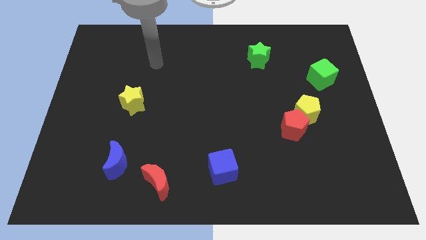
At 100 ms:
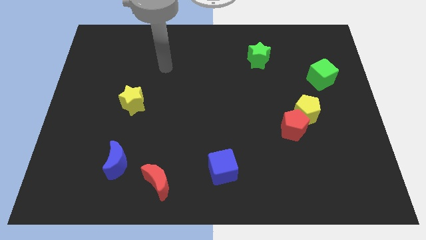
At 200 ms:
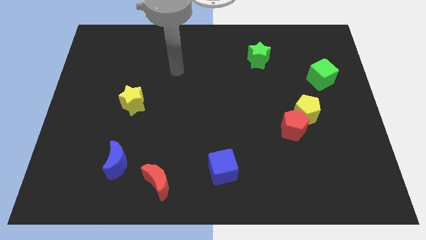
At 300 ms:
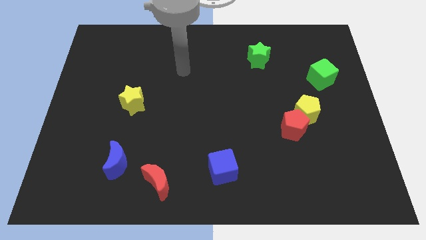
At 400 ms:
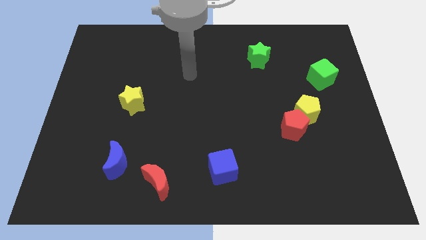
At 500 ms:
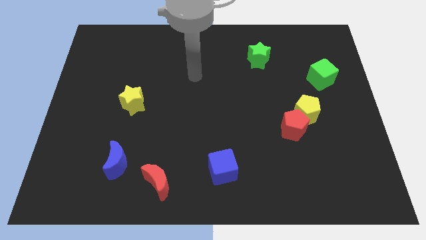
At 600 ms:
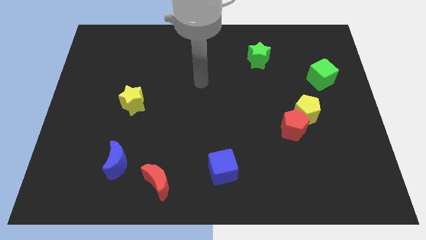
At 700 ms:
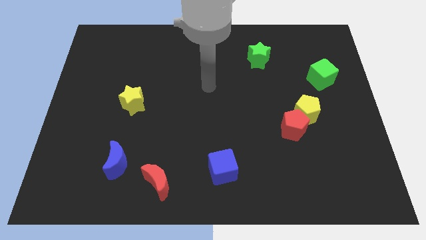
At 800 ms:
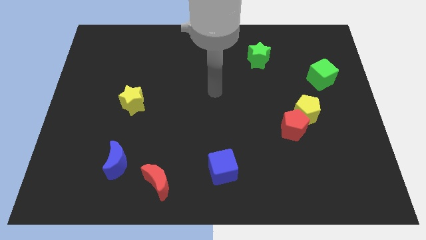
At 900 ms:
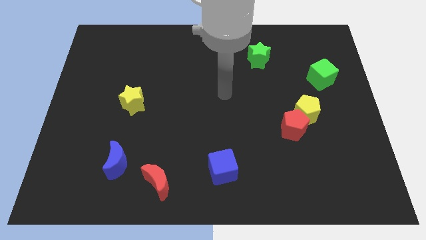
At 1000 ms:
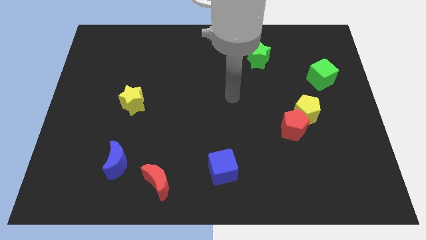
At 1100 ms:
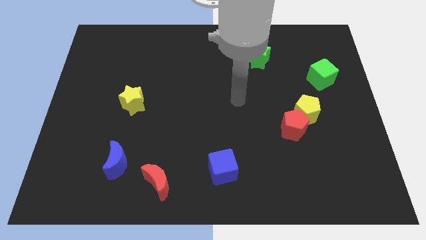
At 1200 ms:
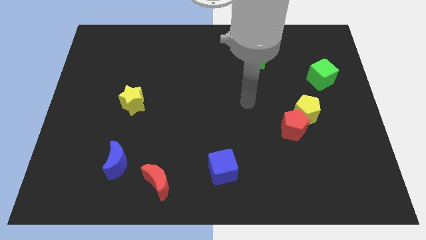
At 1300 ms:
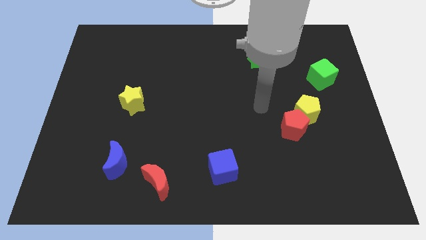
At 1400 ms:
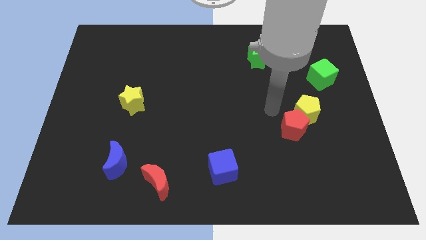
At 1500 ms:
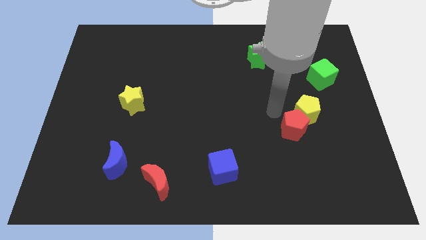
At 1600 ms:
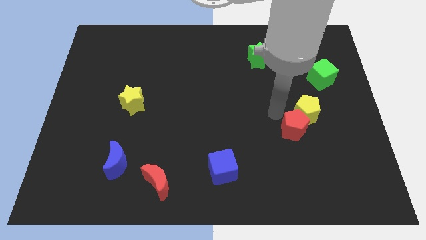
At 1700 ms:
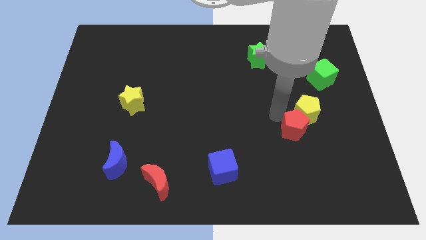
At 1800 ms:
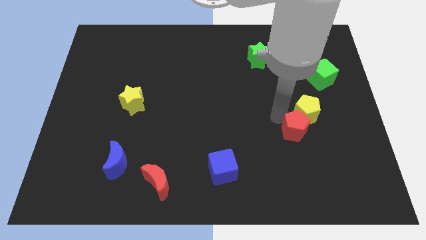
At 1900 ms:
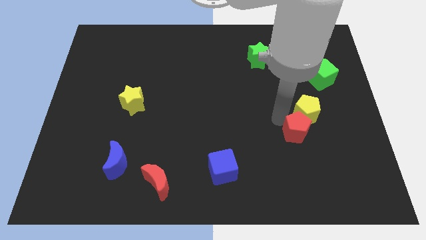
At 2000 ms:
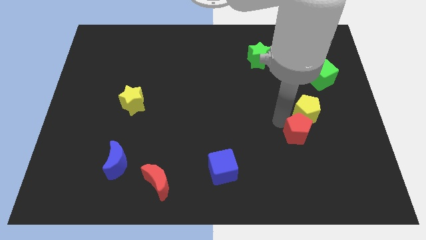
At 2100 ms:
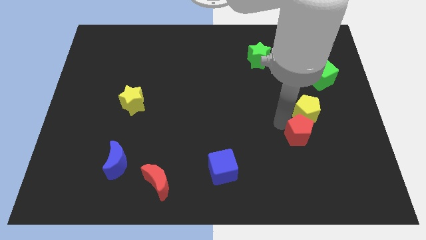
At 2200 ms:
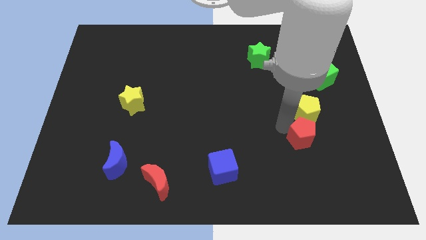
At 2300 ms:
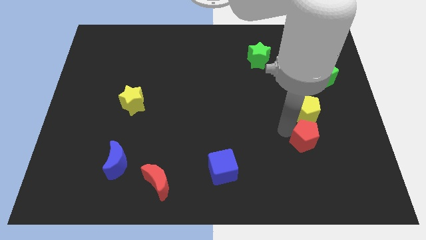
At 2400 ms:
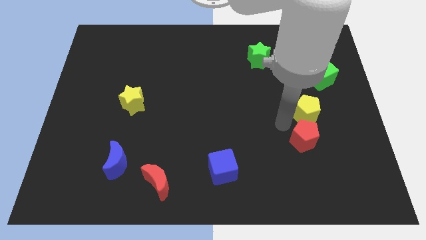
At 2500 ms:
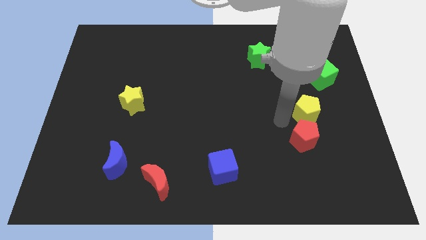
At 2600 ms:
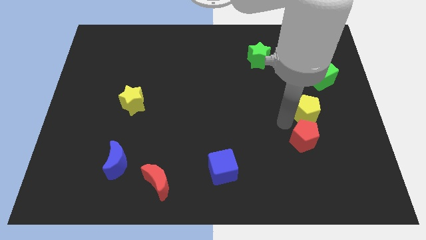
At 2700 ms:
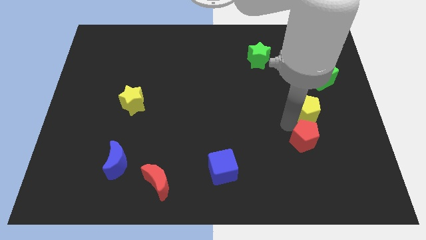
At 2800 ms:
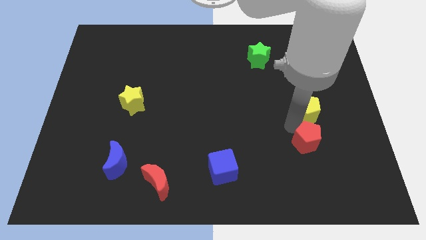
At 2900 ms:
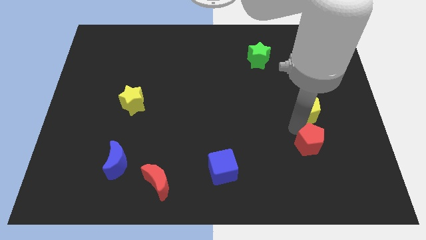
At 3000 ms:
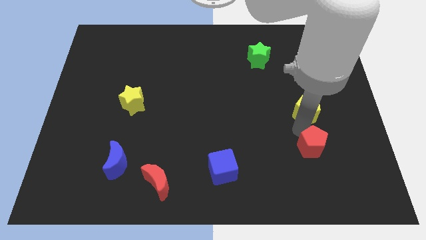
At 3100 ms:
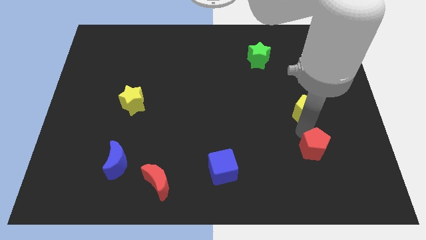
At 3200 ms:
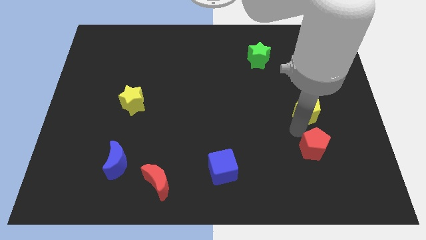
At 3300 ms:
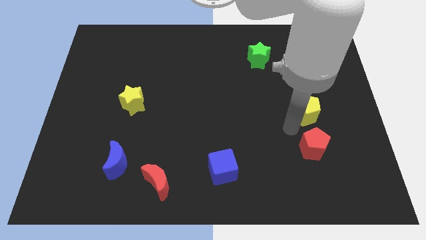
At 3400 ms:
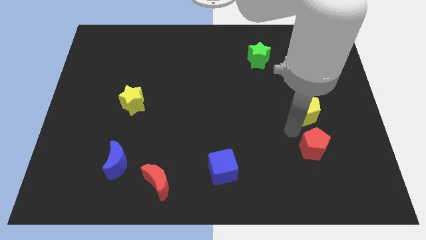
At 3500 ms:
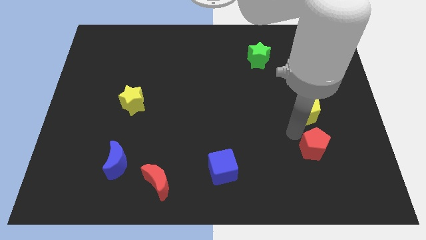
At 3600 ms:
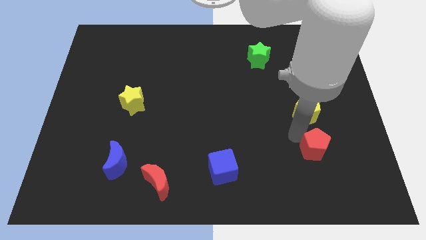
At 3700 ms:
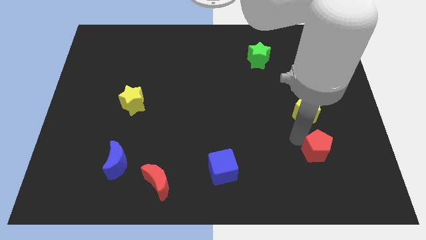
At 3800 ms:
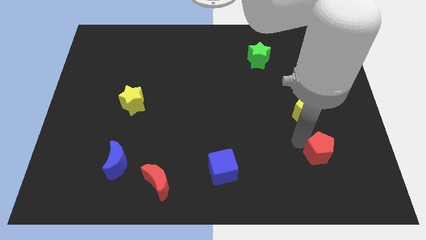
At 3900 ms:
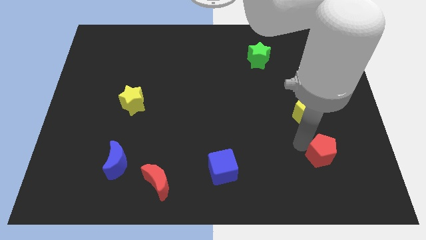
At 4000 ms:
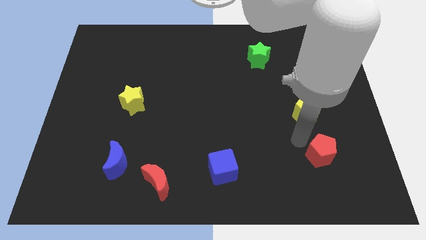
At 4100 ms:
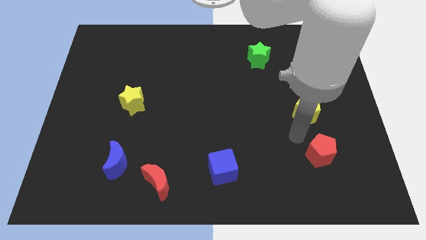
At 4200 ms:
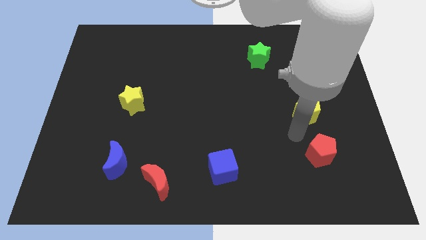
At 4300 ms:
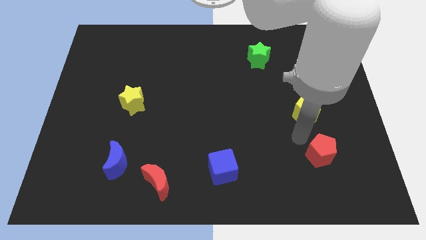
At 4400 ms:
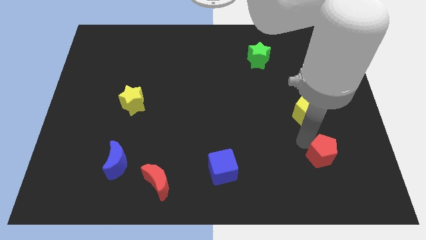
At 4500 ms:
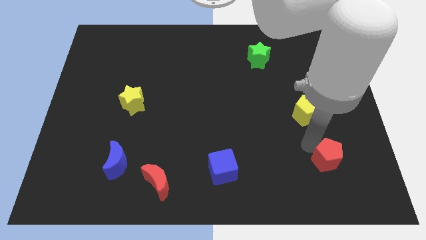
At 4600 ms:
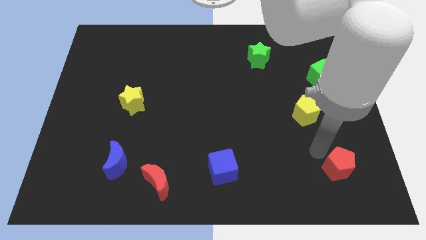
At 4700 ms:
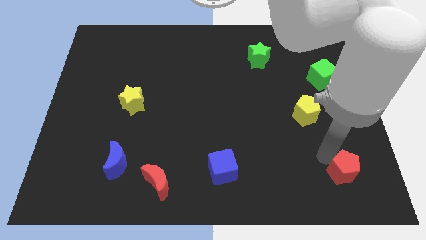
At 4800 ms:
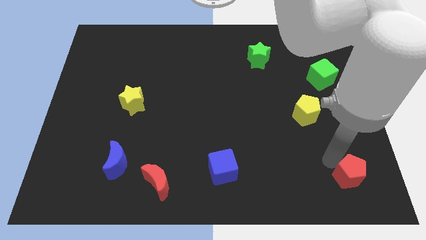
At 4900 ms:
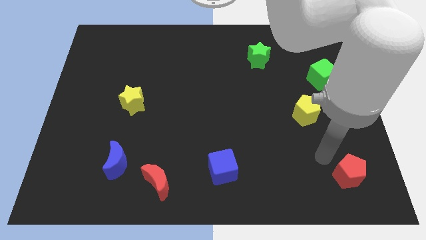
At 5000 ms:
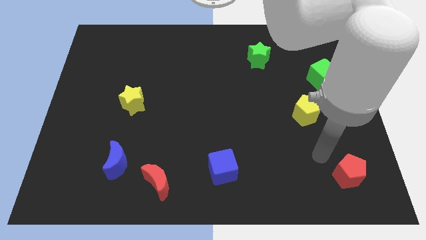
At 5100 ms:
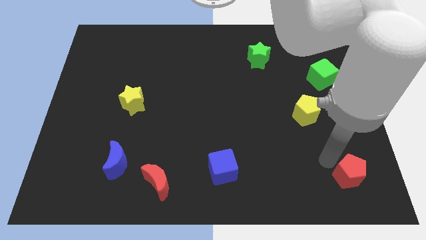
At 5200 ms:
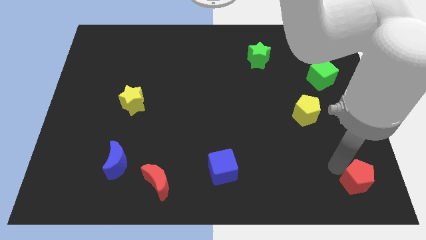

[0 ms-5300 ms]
push the red pentagon to the bottom right corner

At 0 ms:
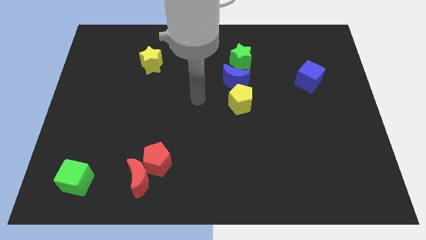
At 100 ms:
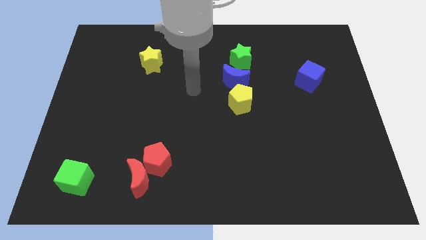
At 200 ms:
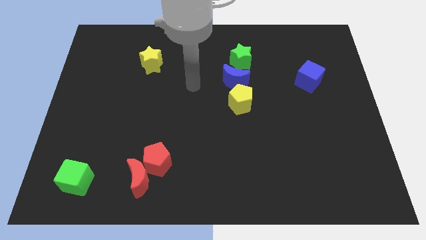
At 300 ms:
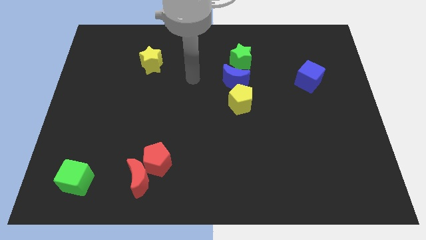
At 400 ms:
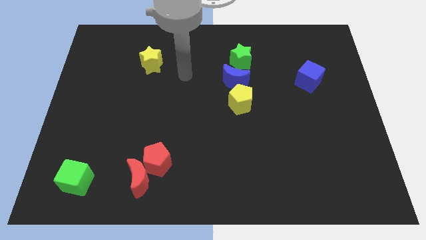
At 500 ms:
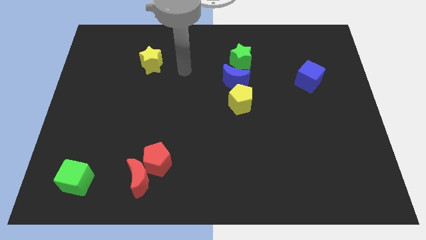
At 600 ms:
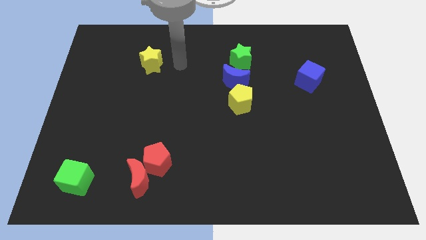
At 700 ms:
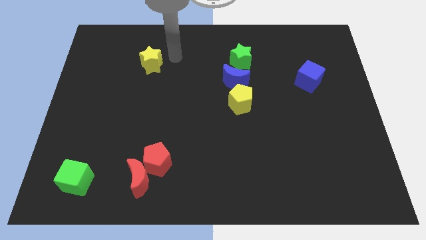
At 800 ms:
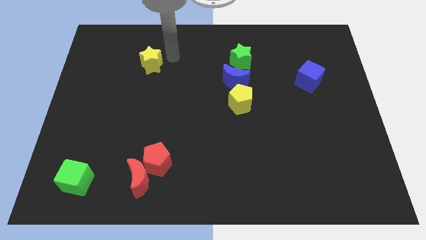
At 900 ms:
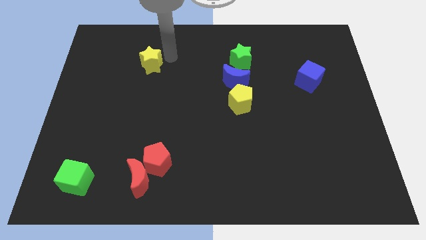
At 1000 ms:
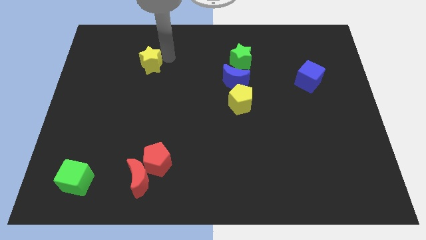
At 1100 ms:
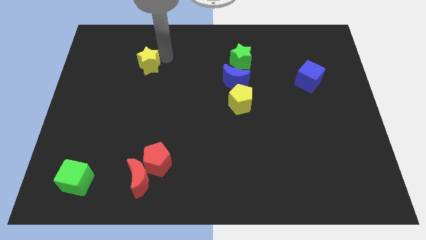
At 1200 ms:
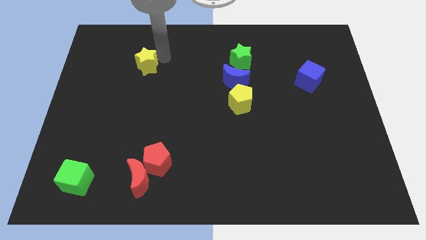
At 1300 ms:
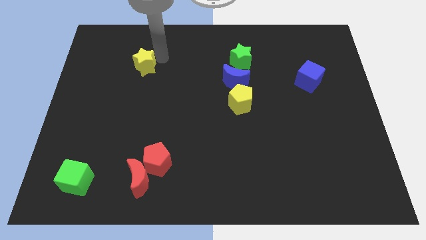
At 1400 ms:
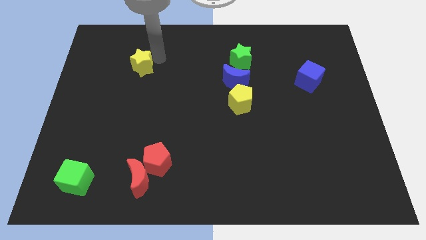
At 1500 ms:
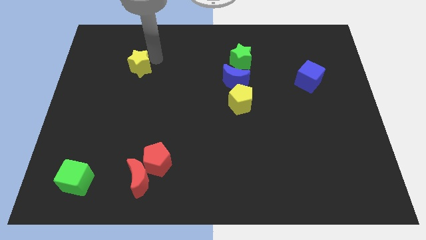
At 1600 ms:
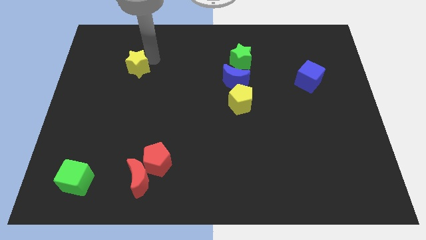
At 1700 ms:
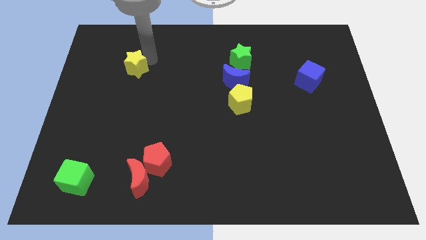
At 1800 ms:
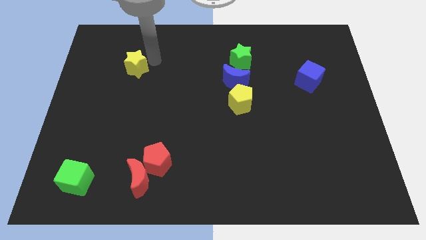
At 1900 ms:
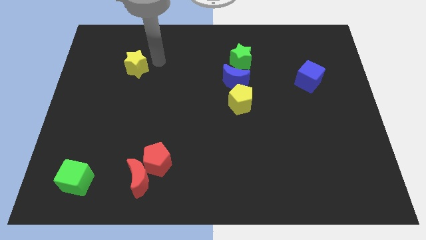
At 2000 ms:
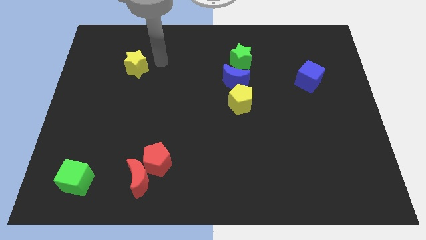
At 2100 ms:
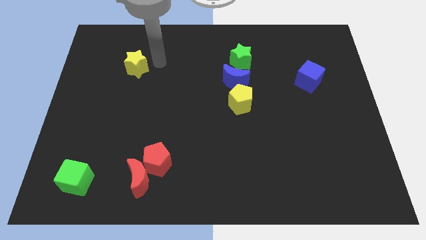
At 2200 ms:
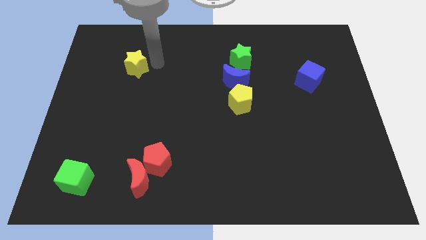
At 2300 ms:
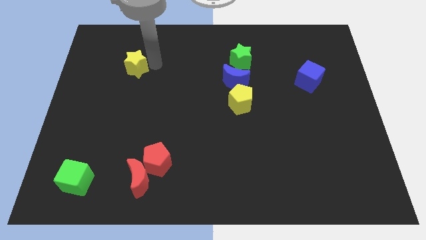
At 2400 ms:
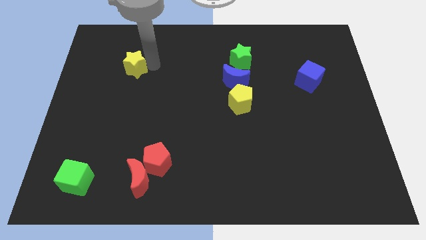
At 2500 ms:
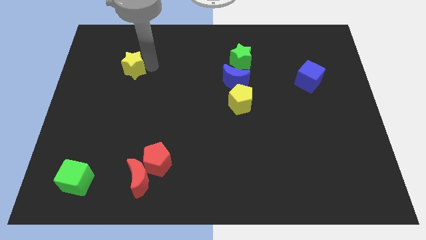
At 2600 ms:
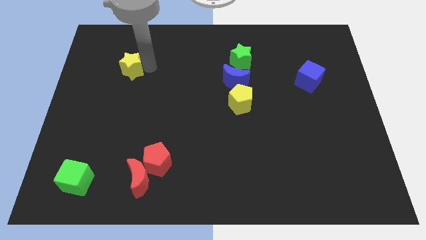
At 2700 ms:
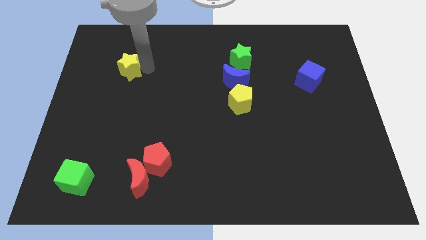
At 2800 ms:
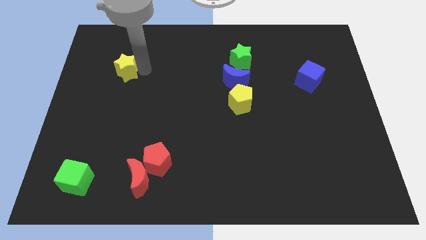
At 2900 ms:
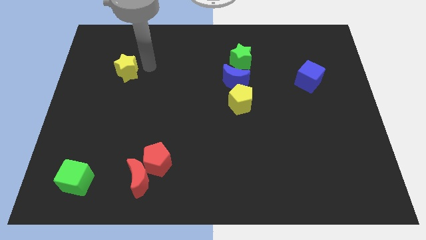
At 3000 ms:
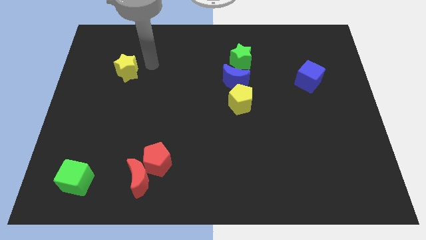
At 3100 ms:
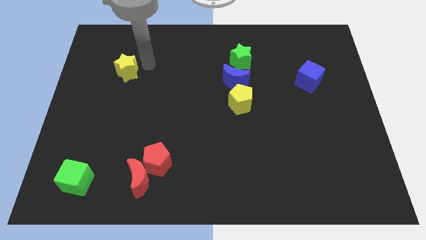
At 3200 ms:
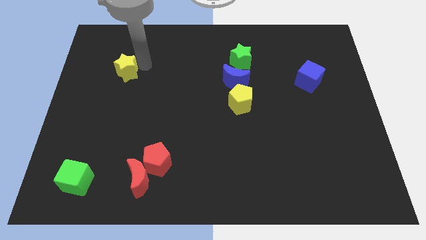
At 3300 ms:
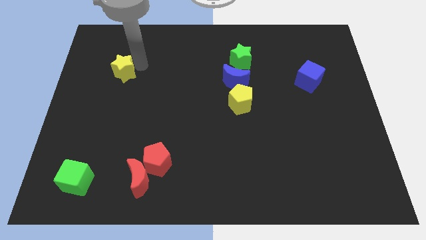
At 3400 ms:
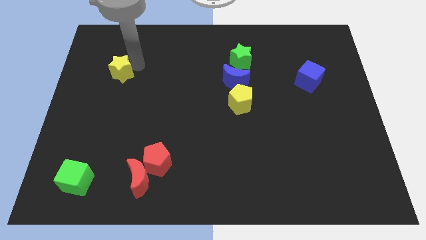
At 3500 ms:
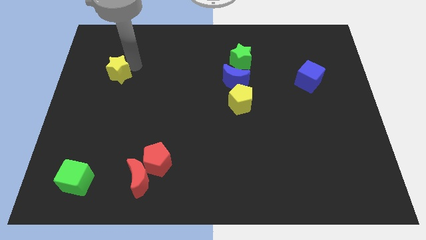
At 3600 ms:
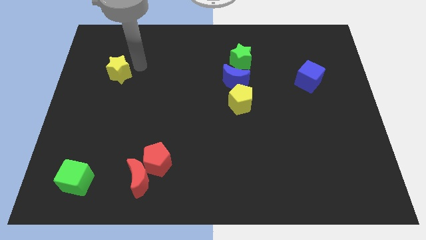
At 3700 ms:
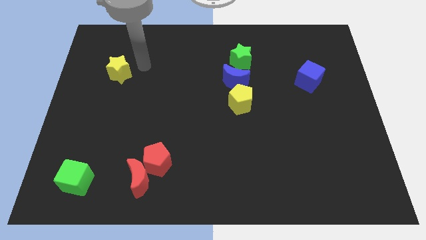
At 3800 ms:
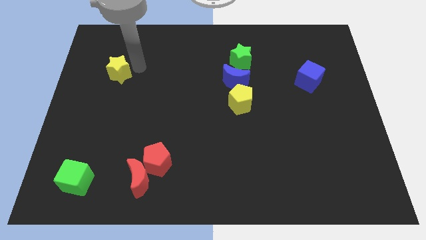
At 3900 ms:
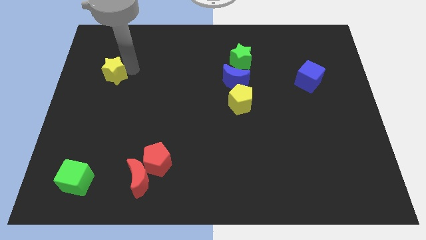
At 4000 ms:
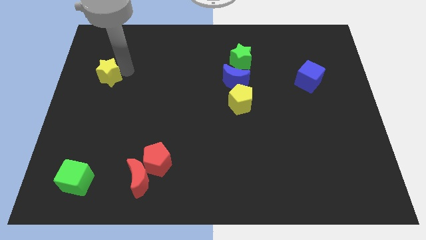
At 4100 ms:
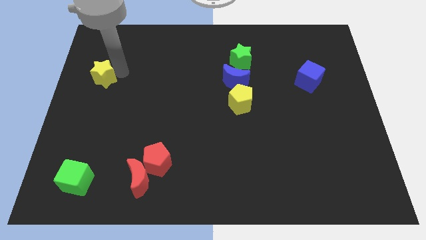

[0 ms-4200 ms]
put the yellow star to the left side of the board
